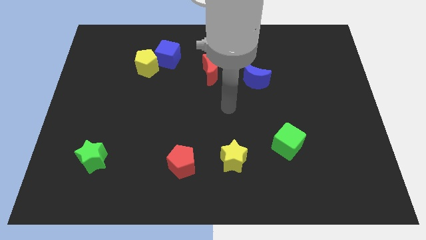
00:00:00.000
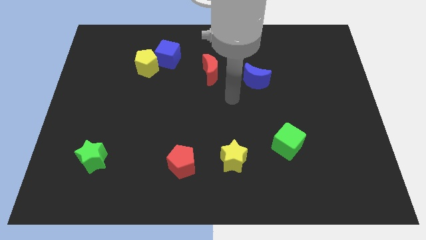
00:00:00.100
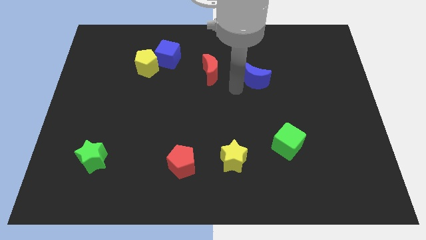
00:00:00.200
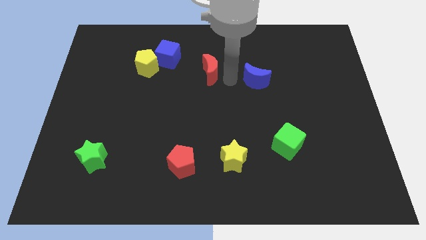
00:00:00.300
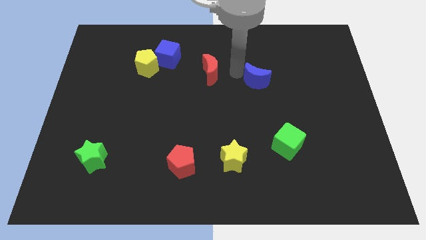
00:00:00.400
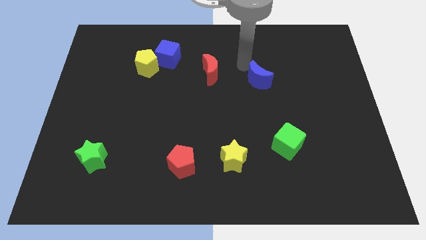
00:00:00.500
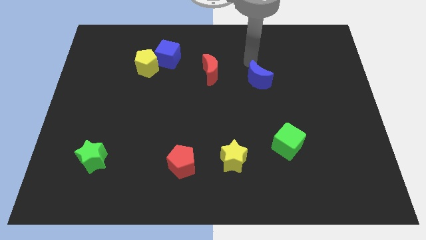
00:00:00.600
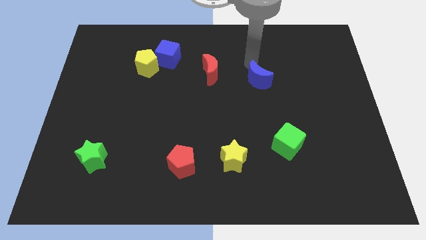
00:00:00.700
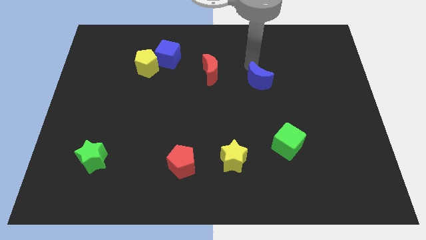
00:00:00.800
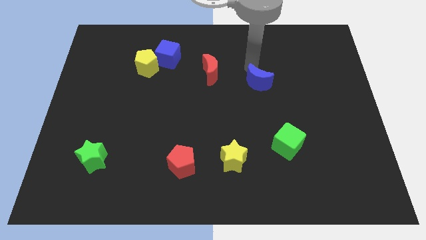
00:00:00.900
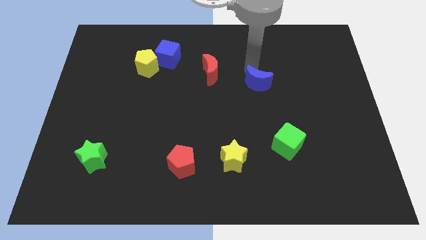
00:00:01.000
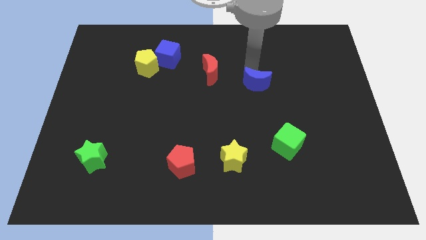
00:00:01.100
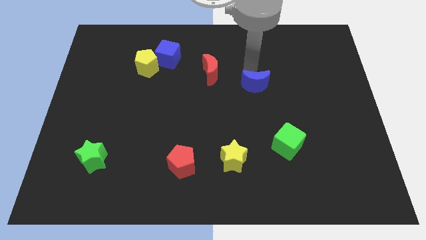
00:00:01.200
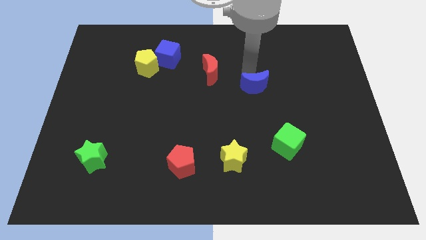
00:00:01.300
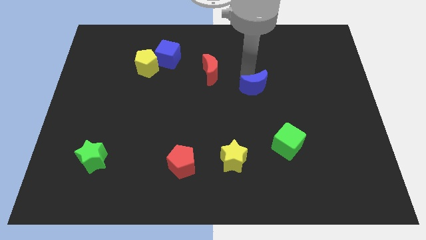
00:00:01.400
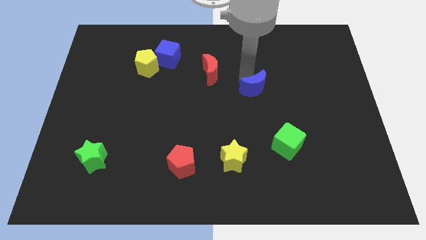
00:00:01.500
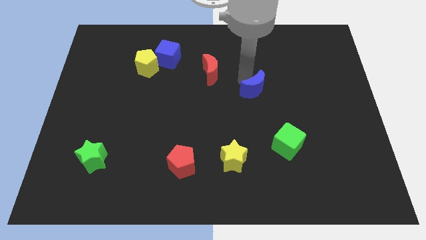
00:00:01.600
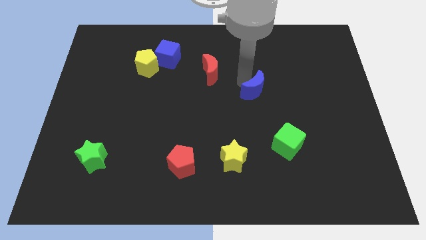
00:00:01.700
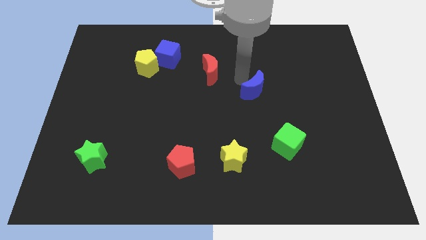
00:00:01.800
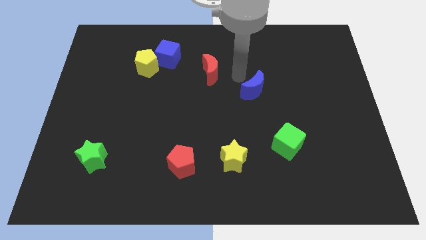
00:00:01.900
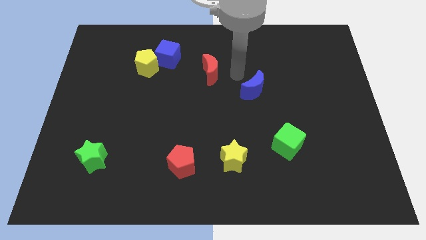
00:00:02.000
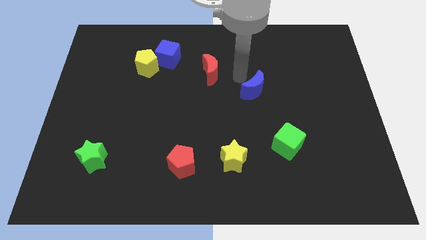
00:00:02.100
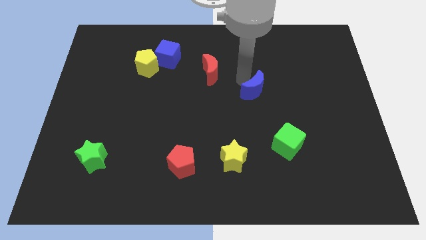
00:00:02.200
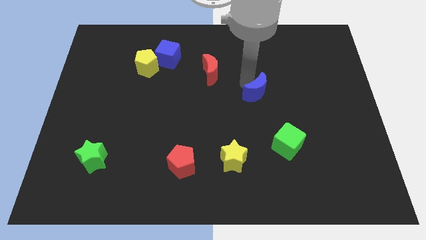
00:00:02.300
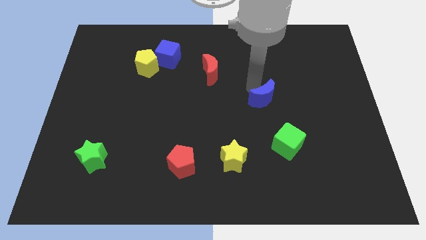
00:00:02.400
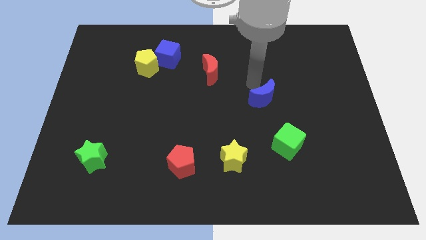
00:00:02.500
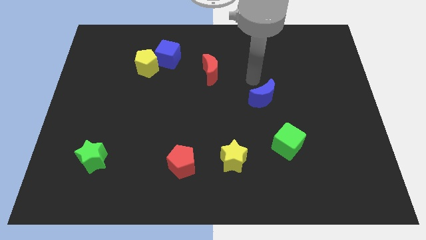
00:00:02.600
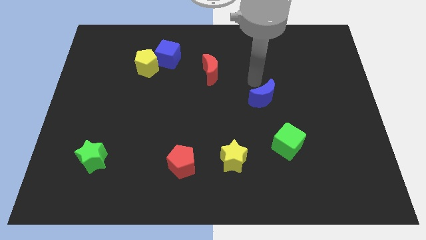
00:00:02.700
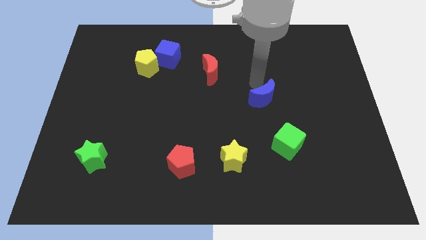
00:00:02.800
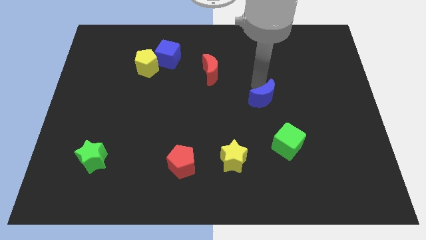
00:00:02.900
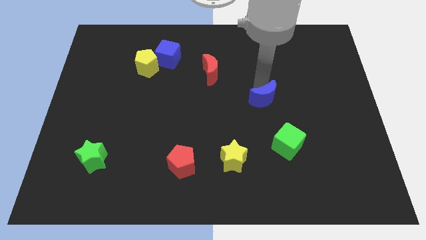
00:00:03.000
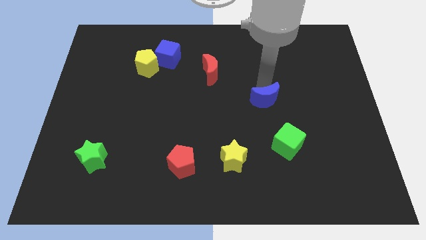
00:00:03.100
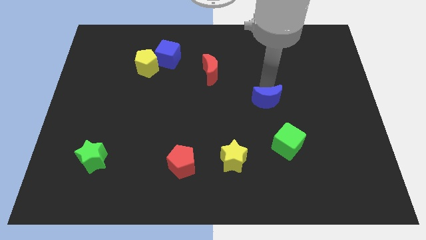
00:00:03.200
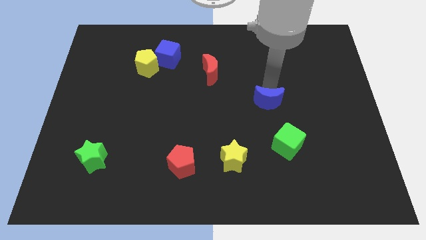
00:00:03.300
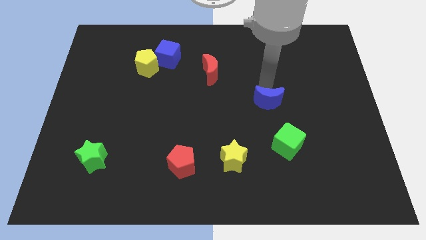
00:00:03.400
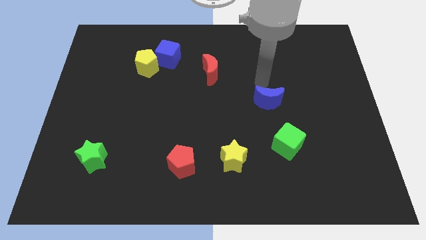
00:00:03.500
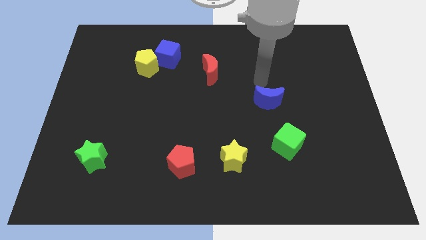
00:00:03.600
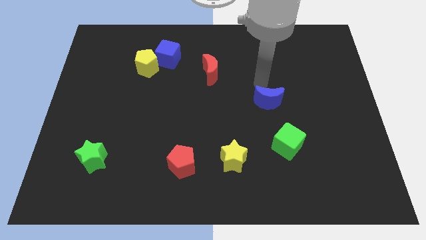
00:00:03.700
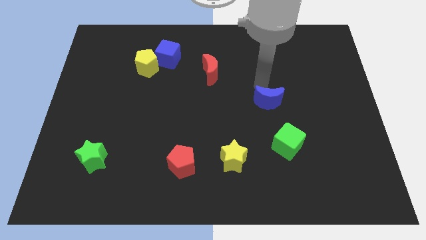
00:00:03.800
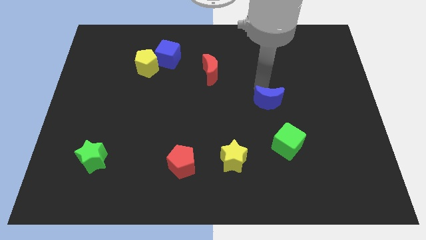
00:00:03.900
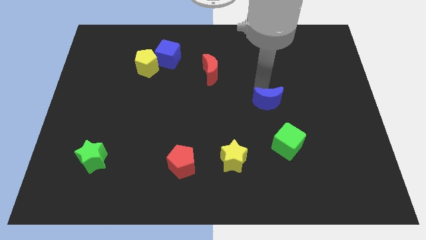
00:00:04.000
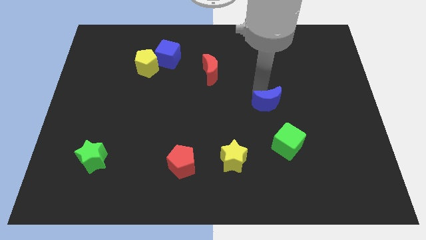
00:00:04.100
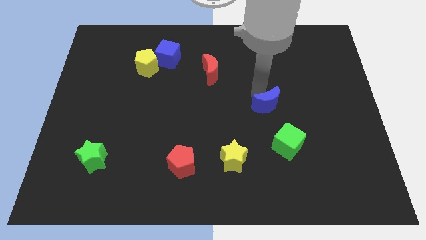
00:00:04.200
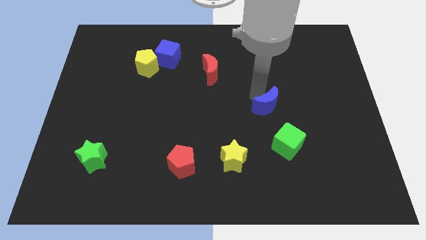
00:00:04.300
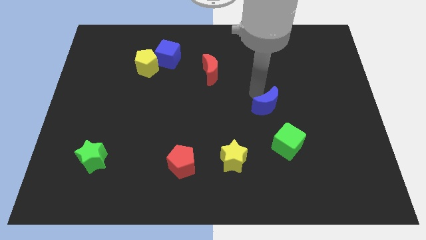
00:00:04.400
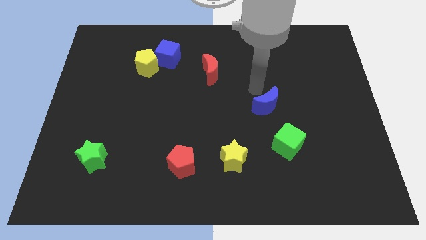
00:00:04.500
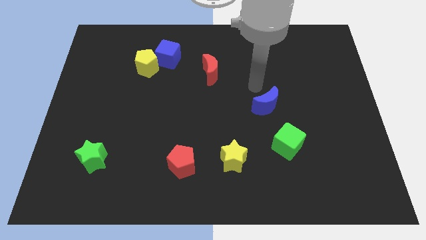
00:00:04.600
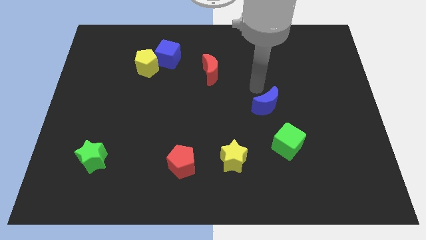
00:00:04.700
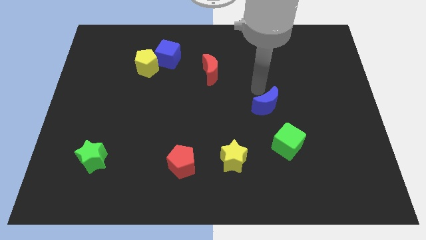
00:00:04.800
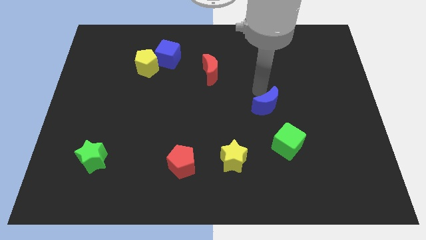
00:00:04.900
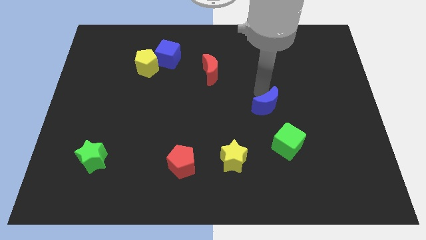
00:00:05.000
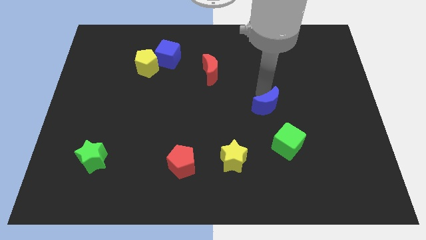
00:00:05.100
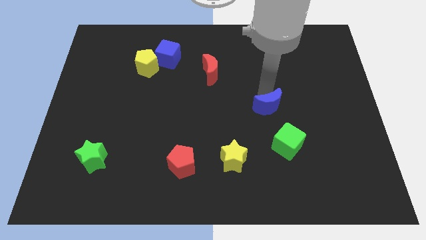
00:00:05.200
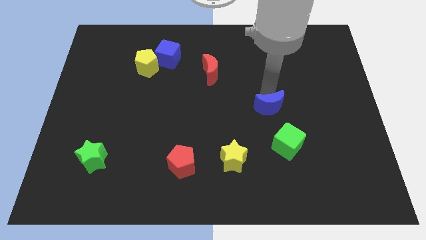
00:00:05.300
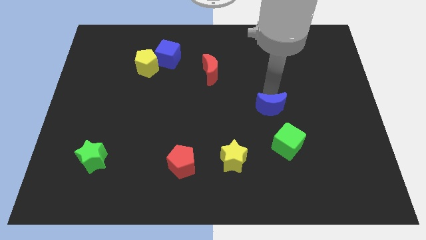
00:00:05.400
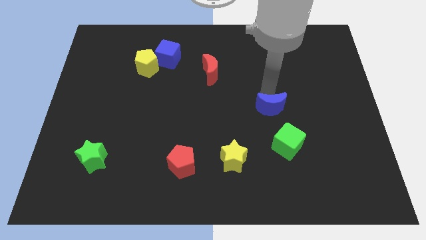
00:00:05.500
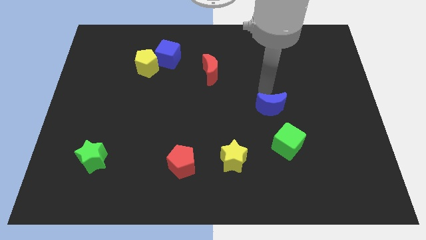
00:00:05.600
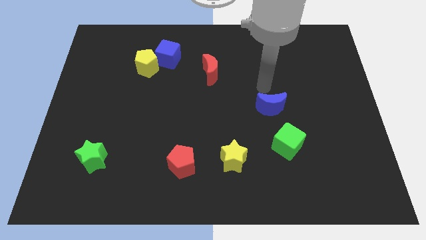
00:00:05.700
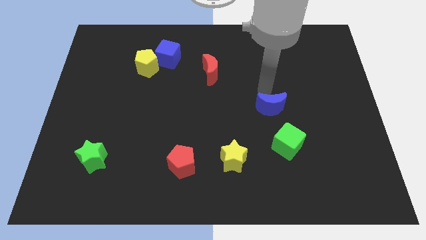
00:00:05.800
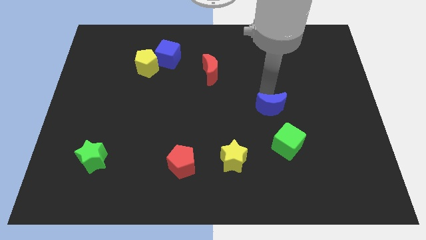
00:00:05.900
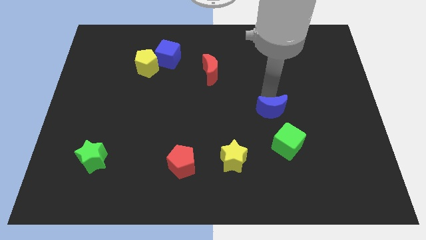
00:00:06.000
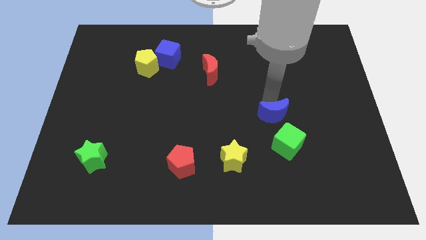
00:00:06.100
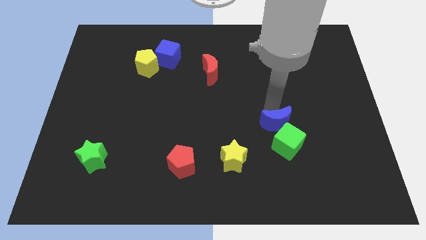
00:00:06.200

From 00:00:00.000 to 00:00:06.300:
move the blue moon towards the green cube

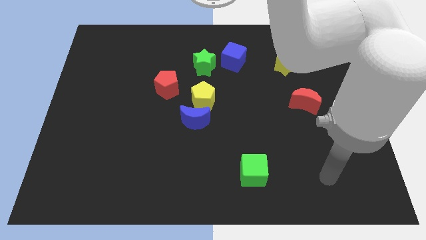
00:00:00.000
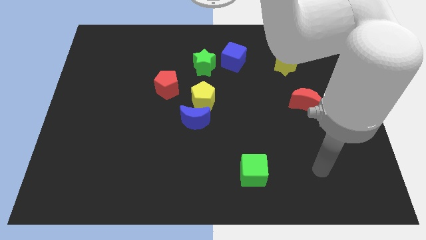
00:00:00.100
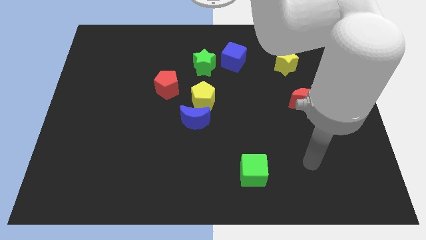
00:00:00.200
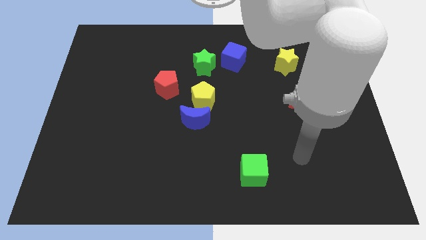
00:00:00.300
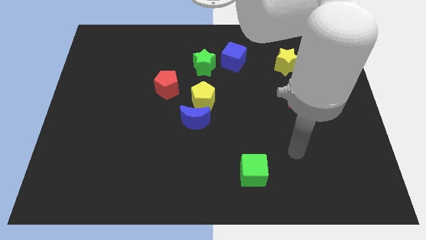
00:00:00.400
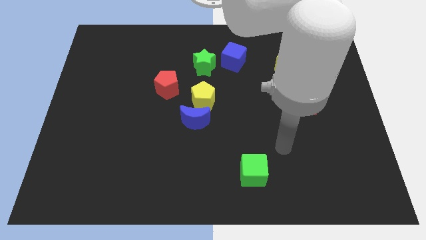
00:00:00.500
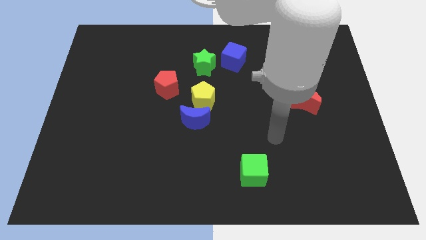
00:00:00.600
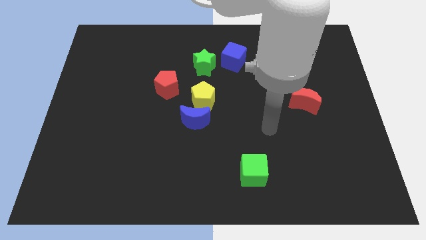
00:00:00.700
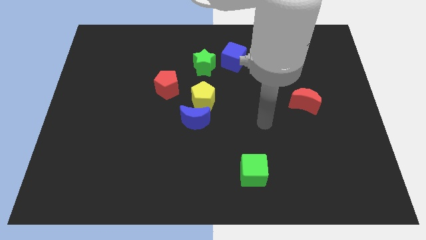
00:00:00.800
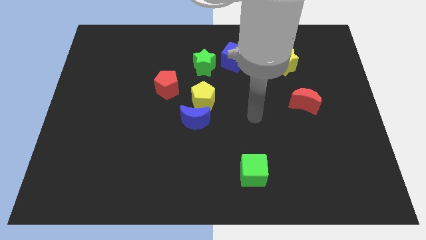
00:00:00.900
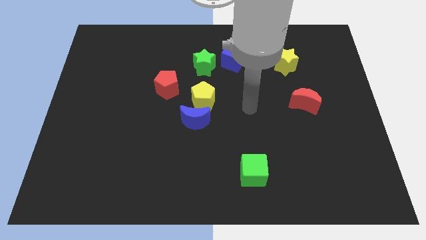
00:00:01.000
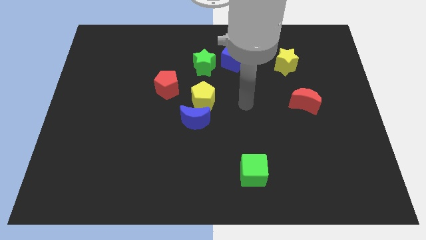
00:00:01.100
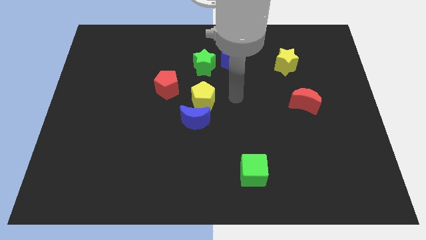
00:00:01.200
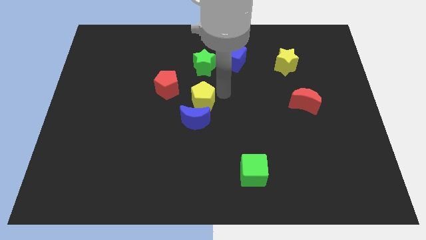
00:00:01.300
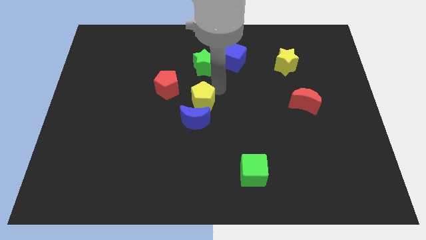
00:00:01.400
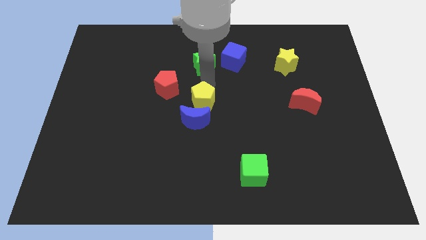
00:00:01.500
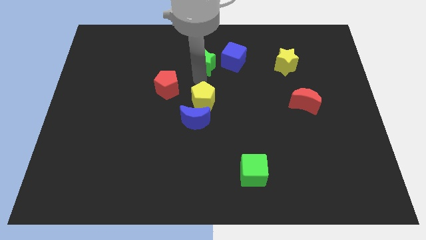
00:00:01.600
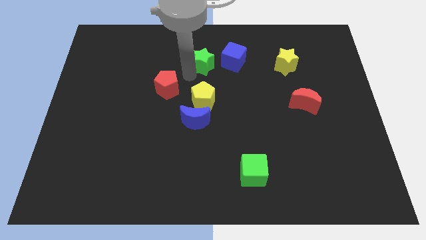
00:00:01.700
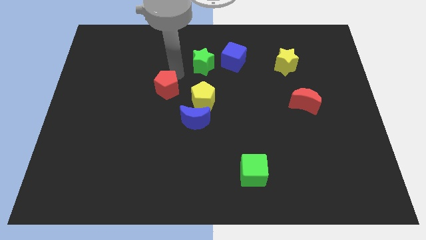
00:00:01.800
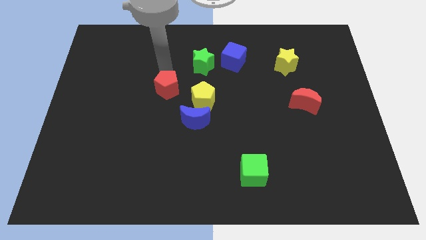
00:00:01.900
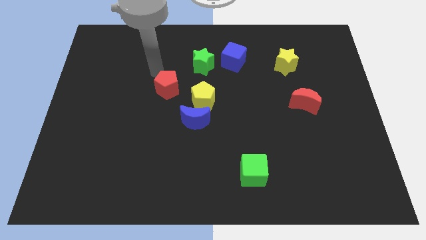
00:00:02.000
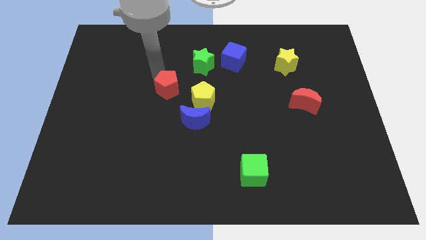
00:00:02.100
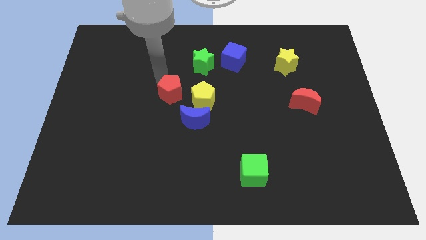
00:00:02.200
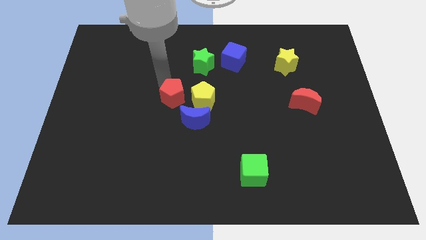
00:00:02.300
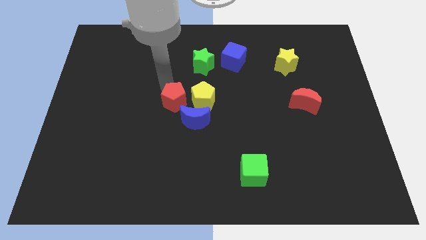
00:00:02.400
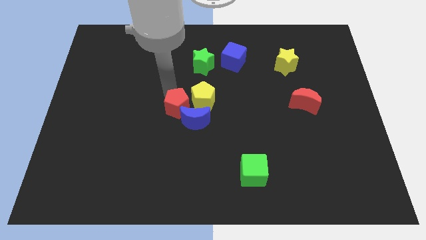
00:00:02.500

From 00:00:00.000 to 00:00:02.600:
move the red pentagon close to the blue moon
